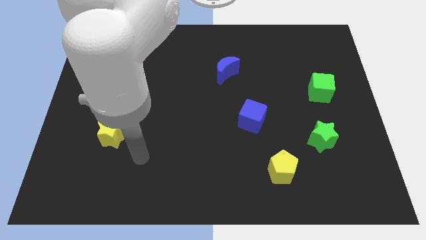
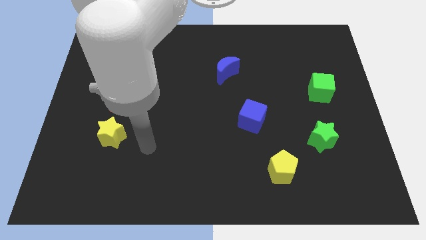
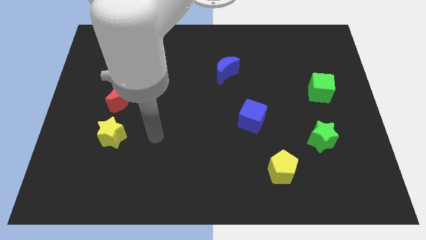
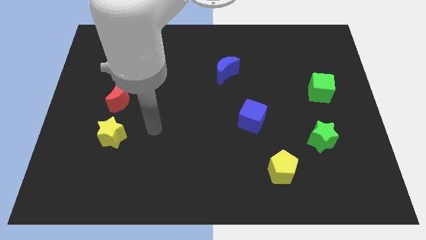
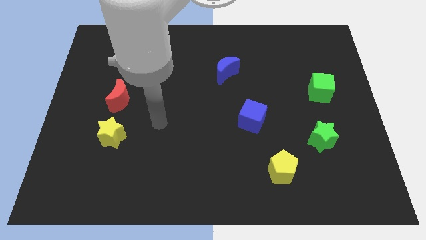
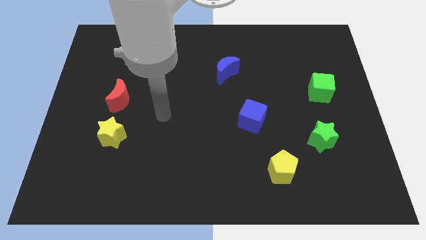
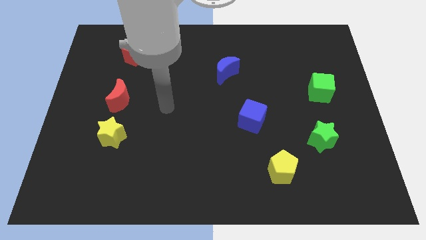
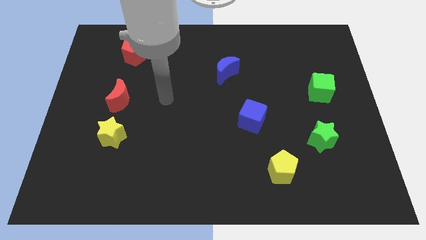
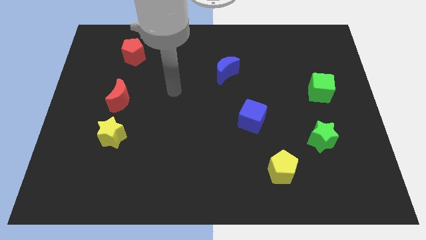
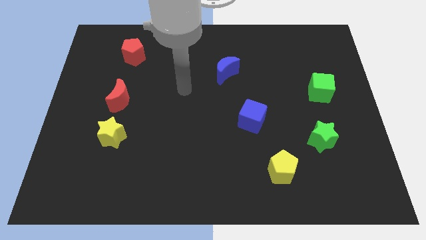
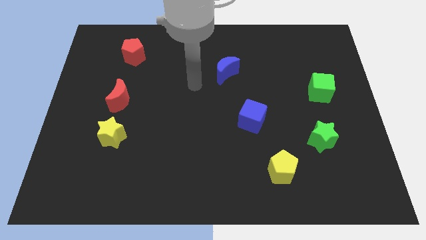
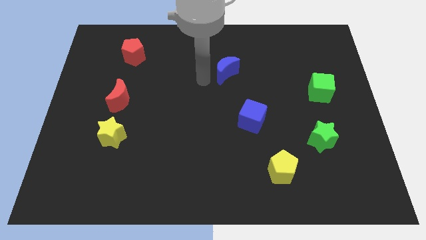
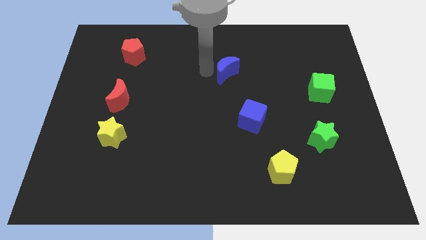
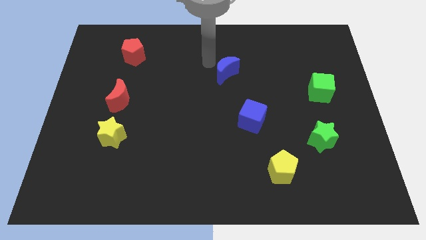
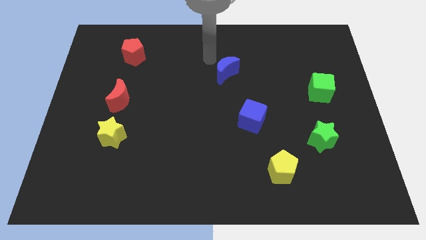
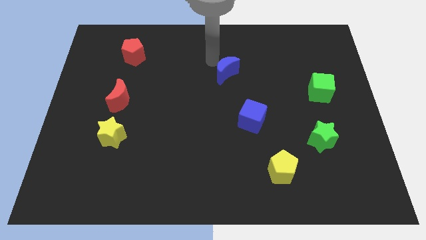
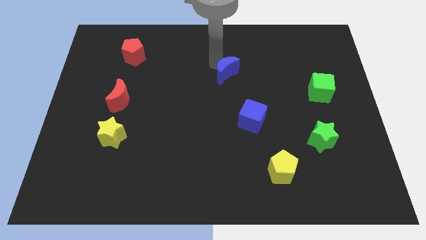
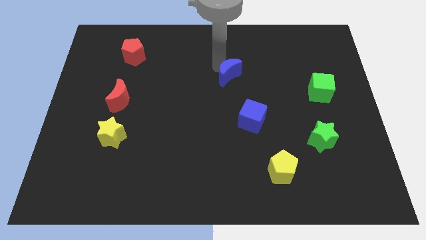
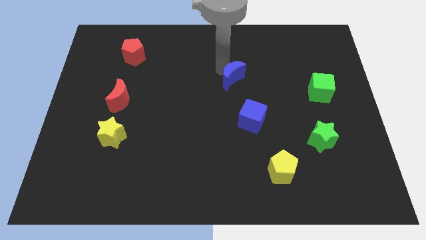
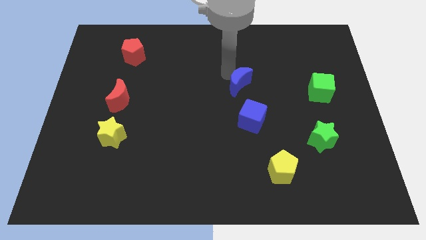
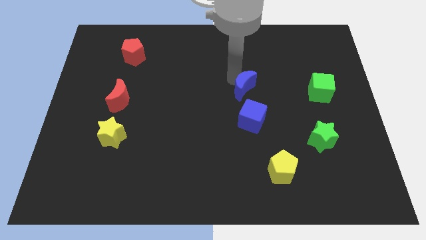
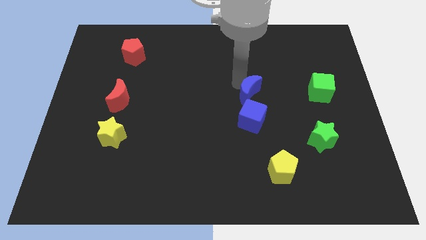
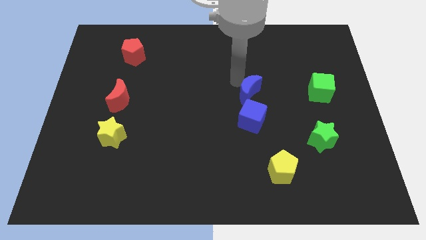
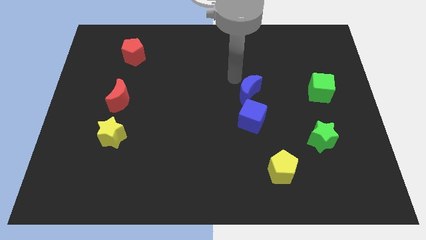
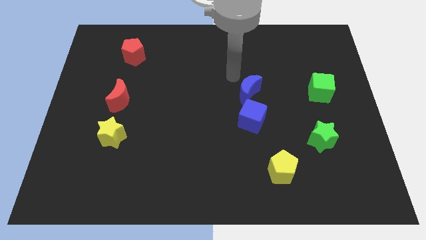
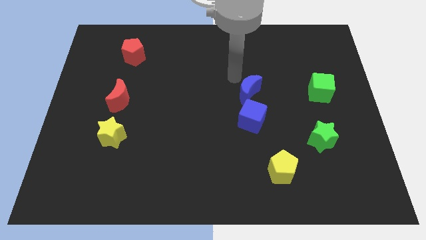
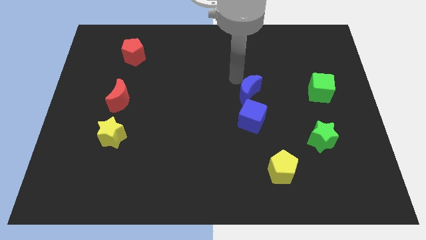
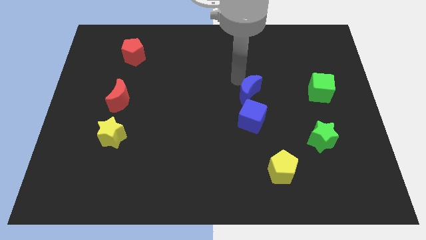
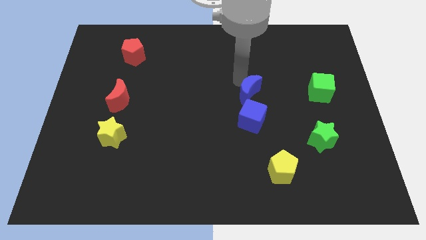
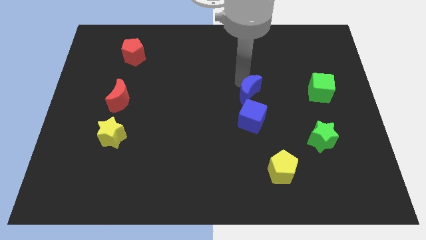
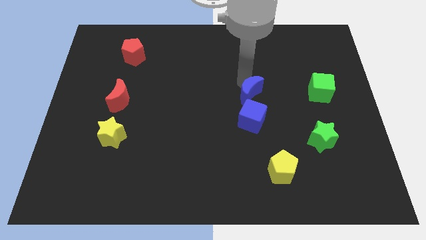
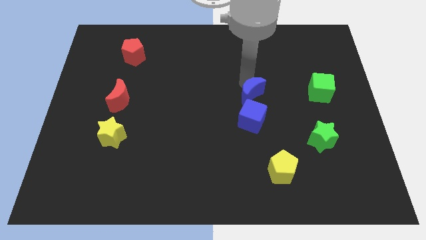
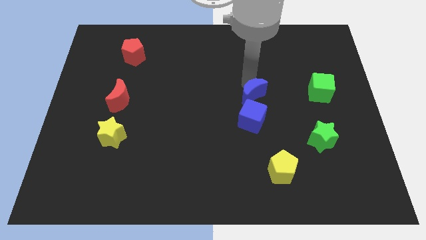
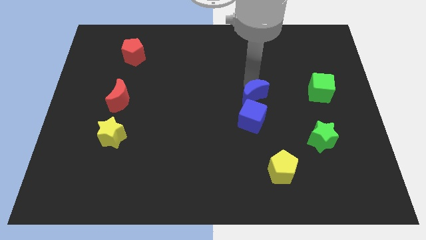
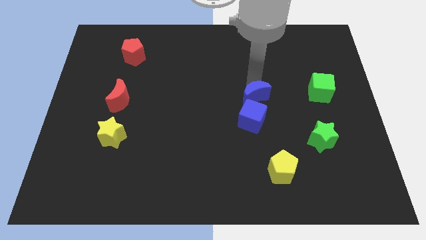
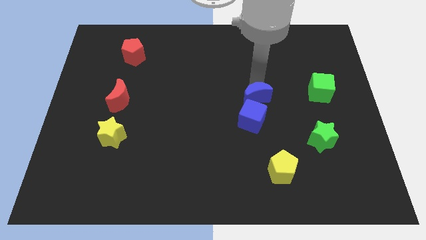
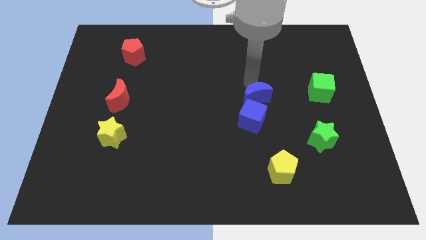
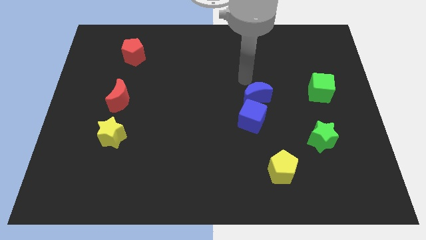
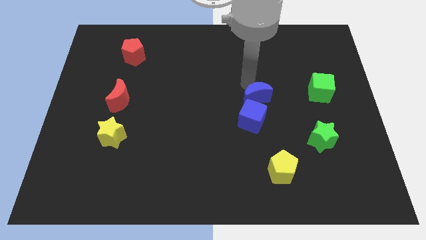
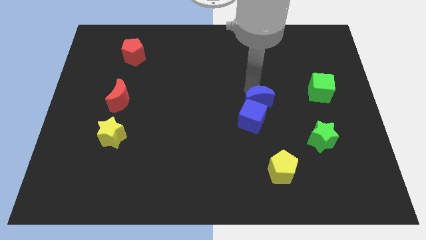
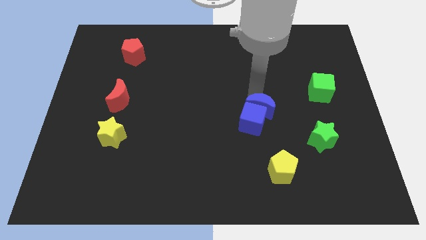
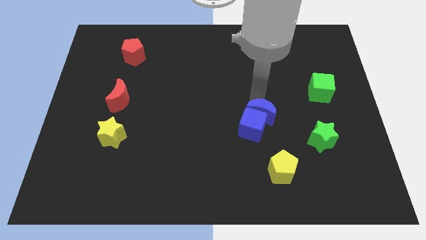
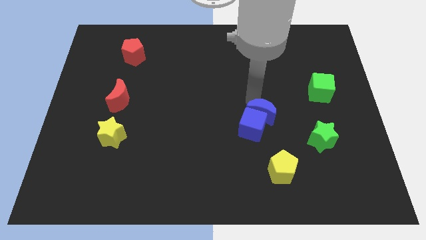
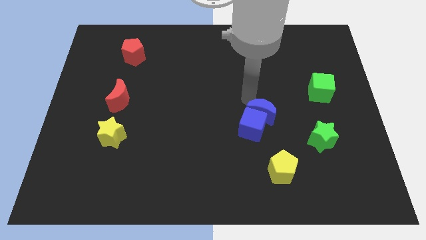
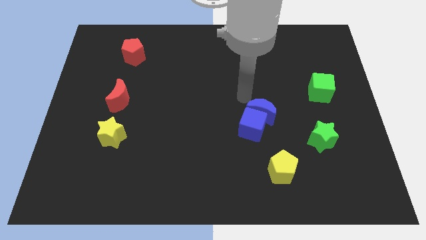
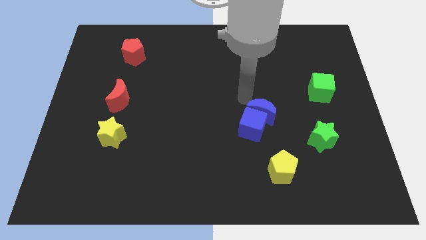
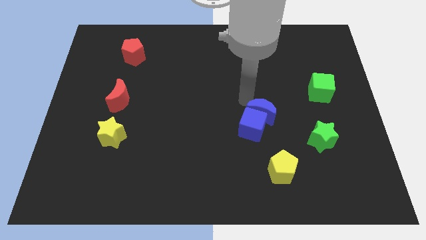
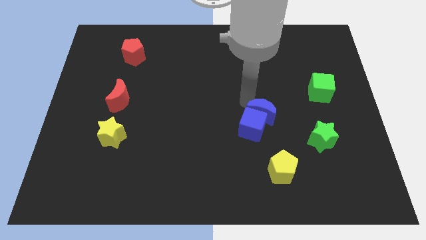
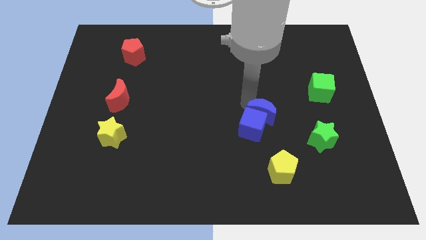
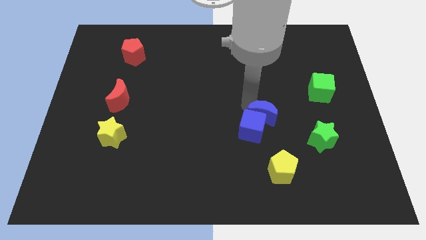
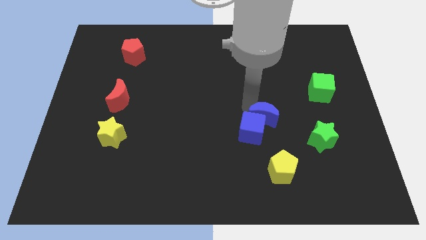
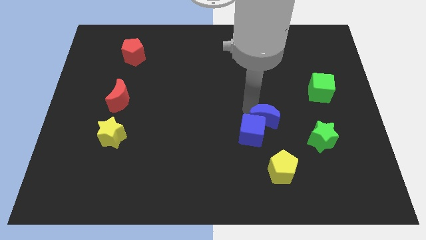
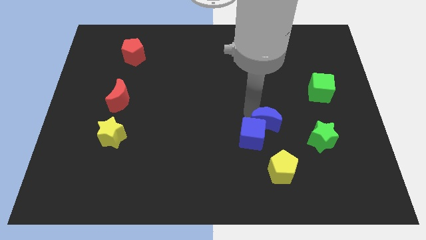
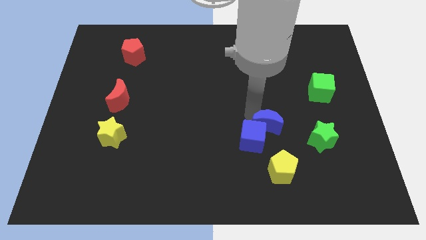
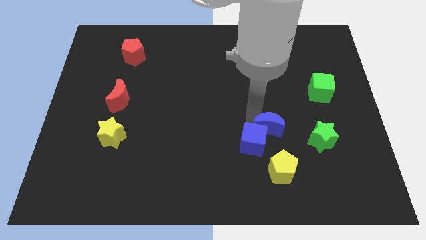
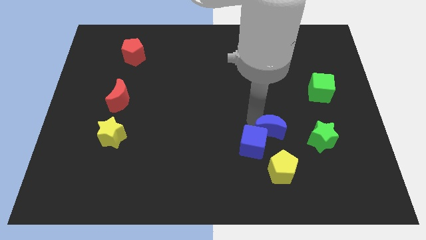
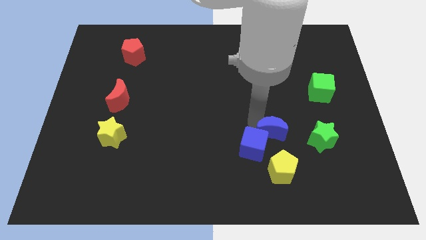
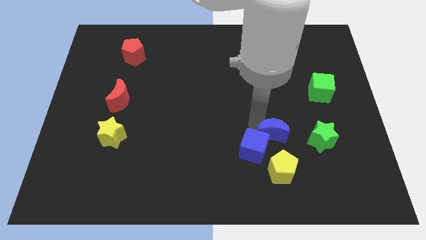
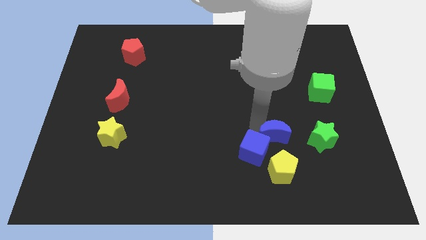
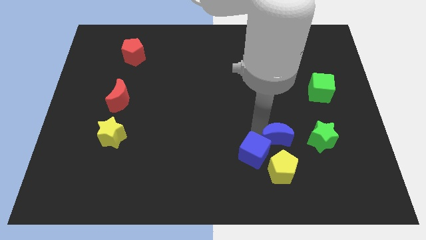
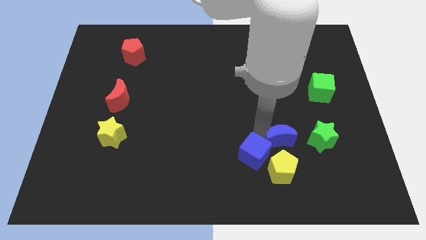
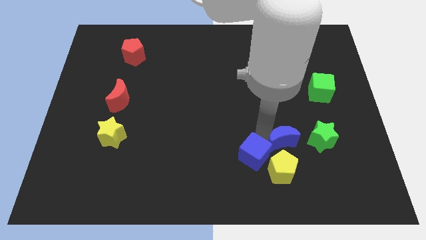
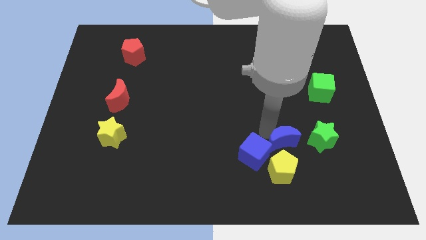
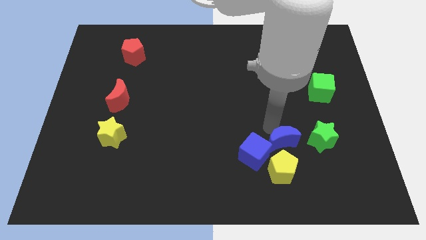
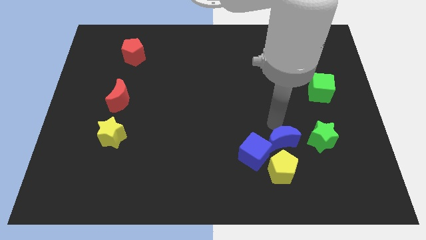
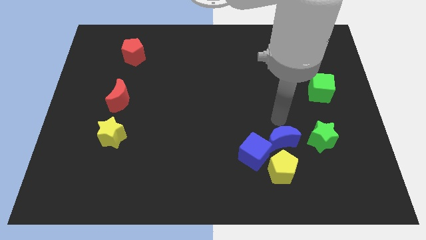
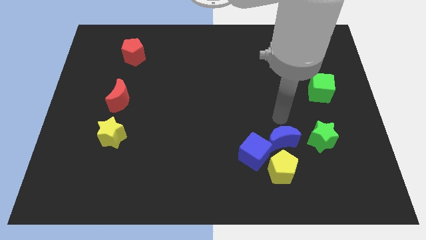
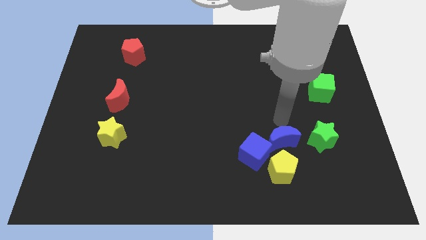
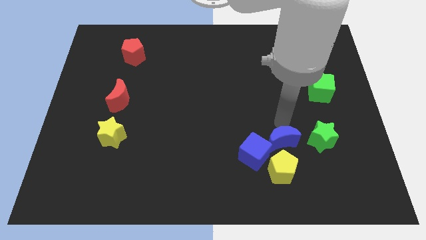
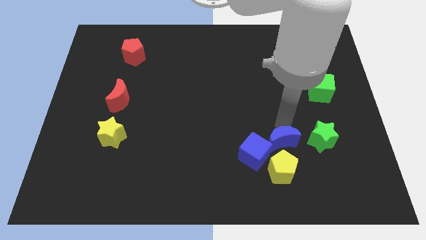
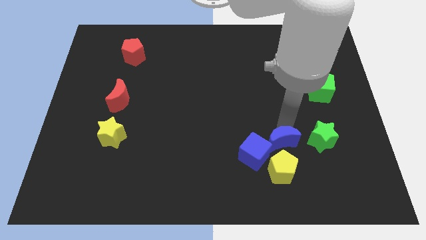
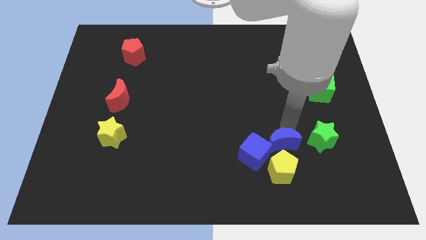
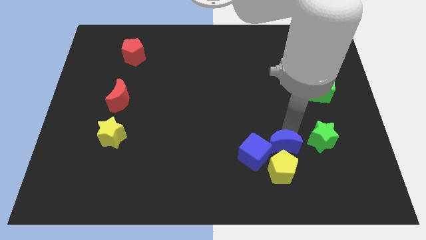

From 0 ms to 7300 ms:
push the blue moon to the yellow pentagon

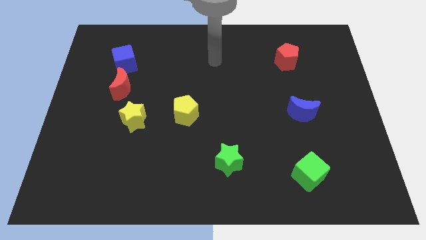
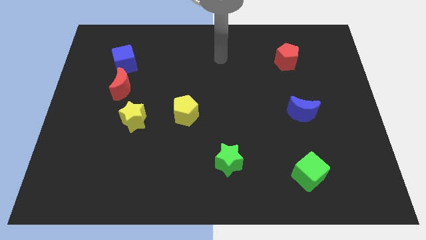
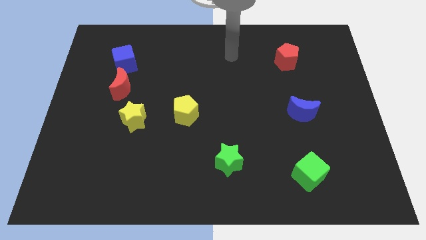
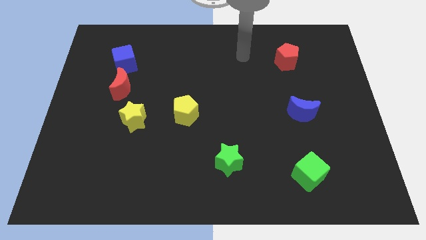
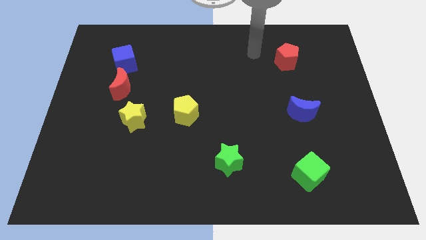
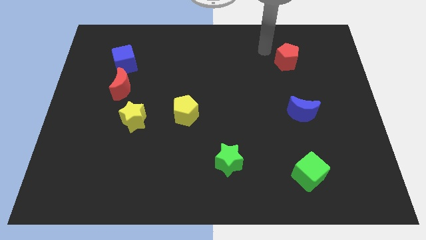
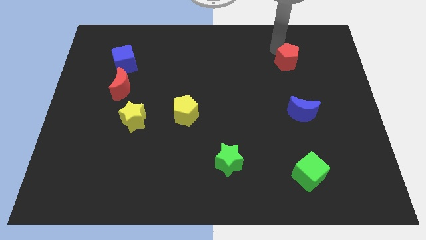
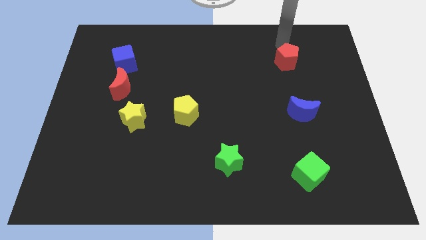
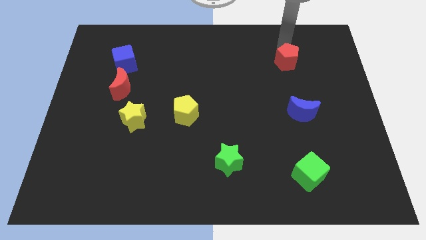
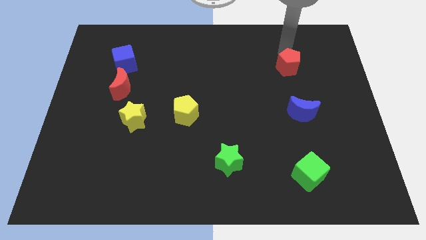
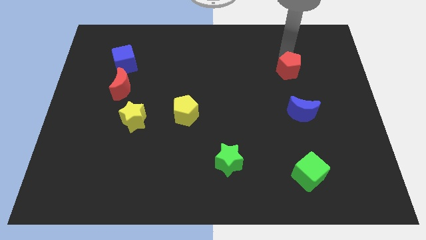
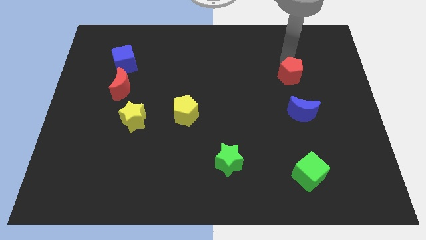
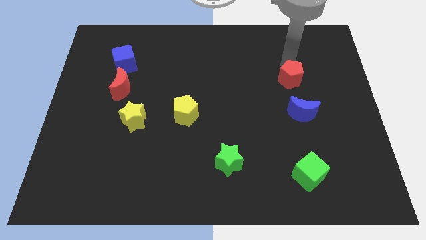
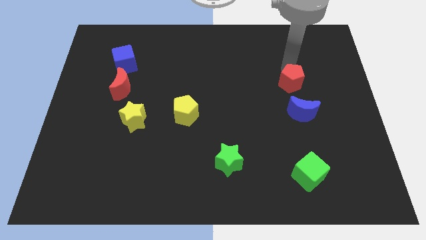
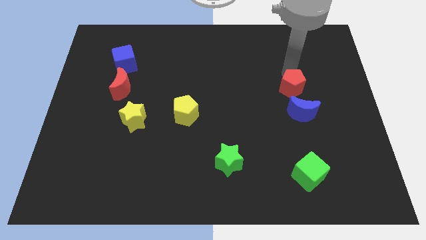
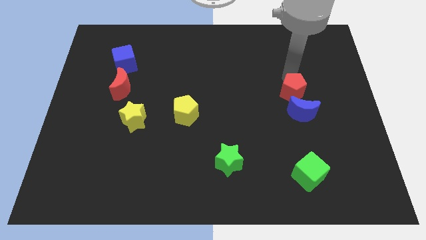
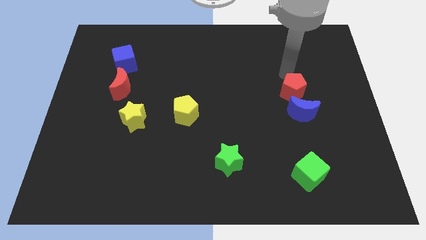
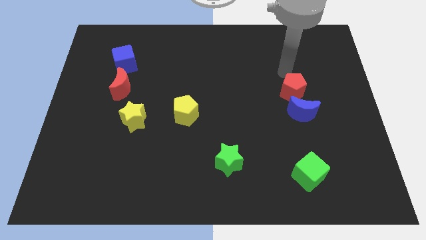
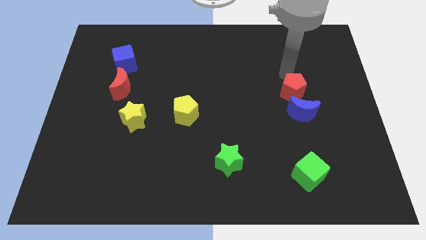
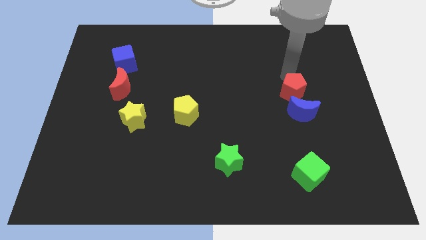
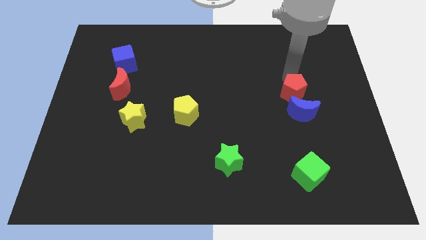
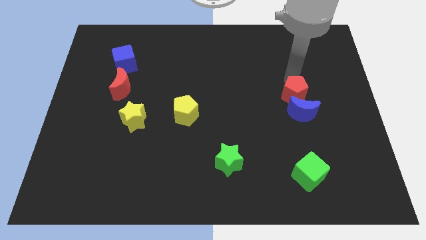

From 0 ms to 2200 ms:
move the red pentagon next to the blue moon
